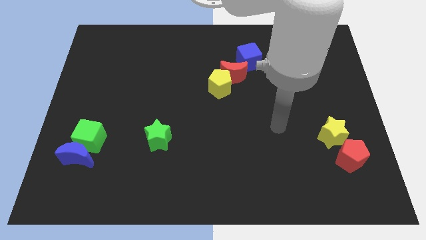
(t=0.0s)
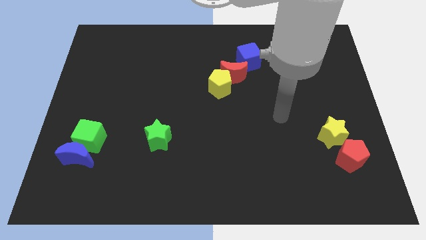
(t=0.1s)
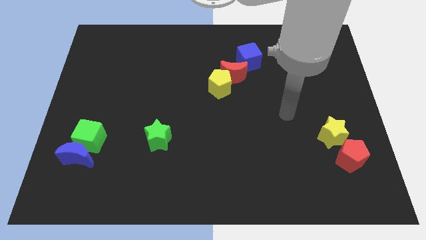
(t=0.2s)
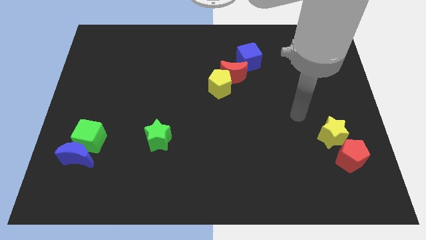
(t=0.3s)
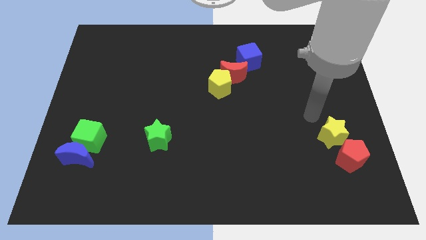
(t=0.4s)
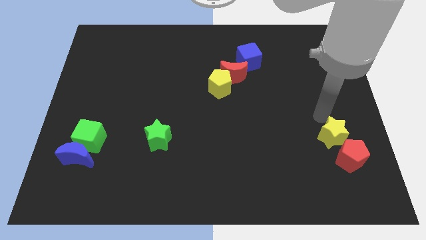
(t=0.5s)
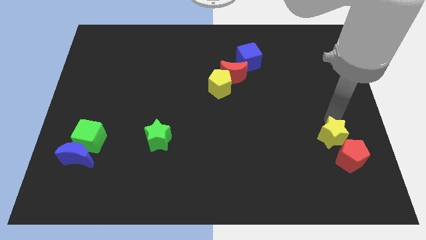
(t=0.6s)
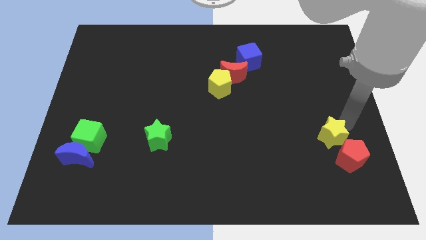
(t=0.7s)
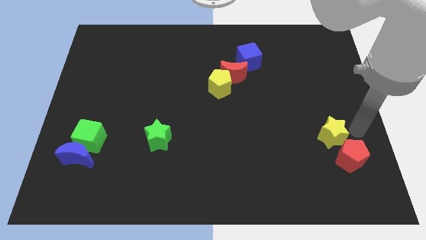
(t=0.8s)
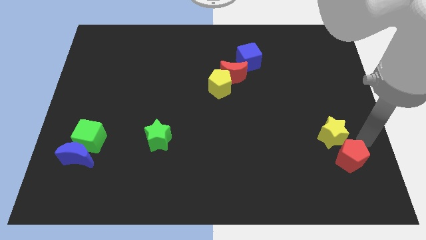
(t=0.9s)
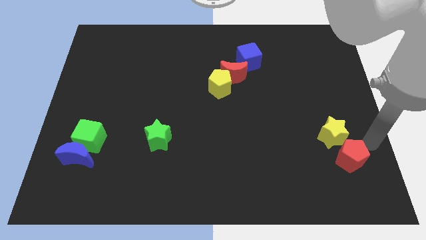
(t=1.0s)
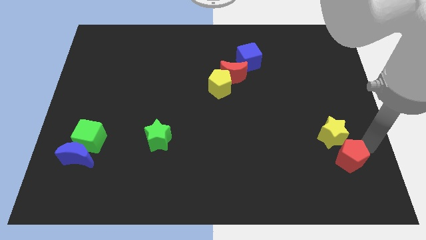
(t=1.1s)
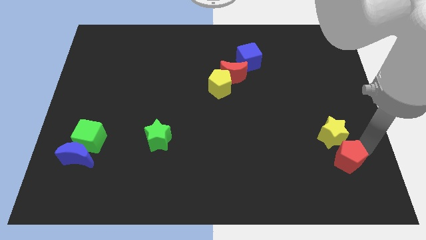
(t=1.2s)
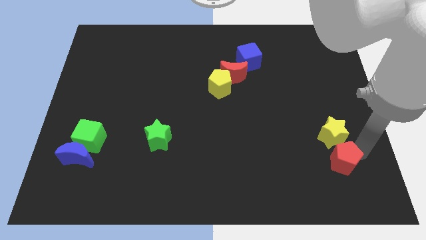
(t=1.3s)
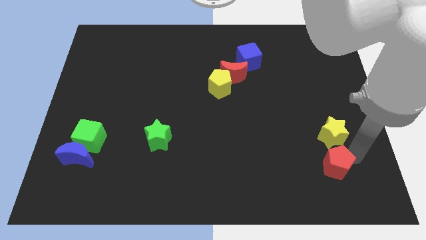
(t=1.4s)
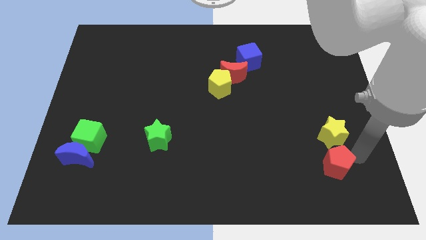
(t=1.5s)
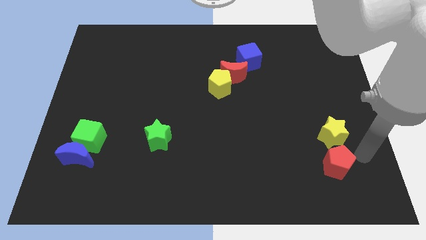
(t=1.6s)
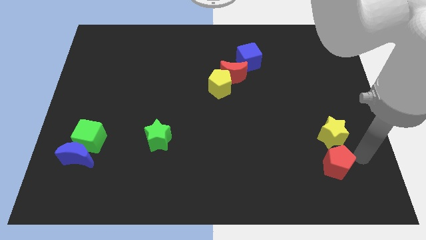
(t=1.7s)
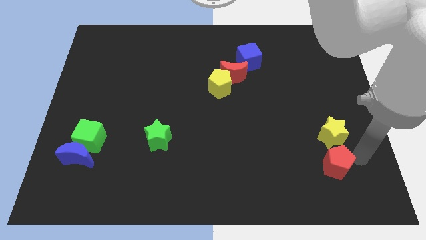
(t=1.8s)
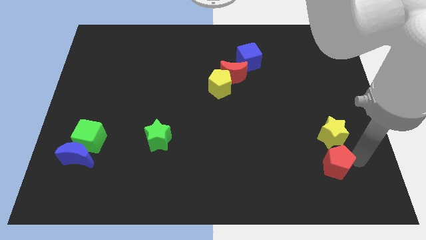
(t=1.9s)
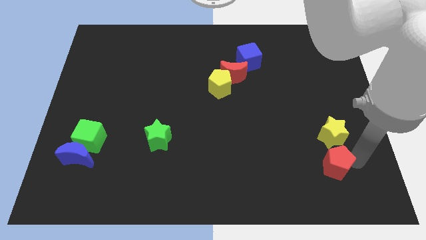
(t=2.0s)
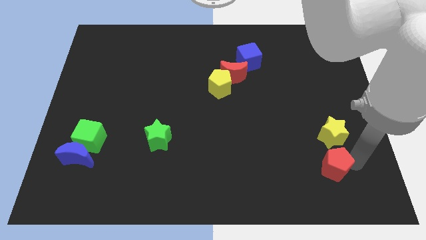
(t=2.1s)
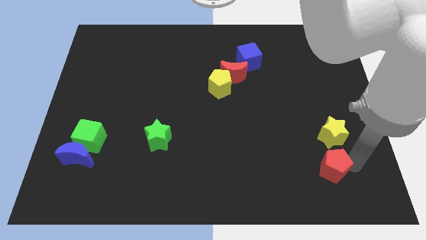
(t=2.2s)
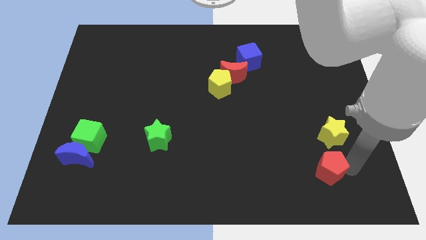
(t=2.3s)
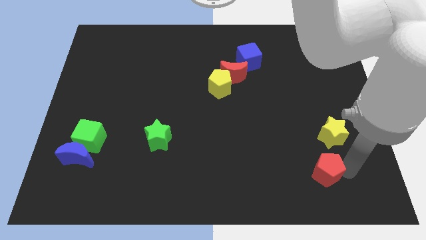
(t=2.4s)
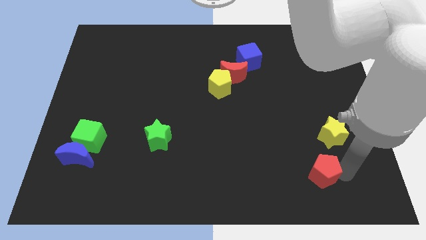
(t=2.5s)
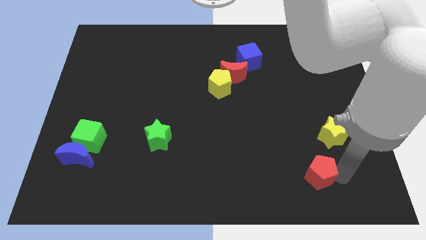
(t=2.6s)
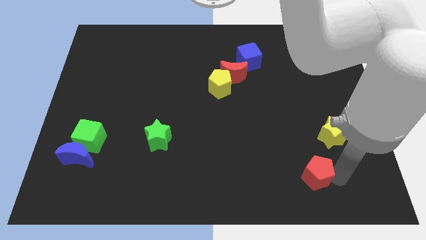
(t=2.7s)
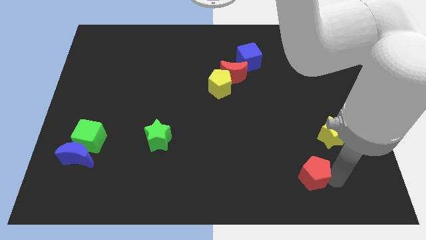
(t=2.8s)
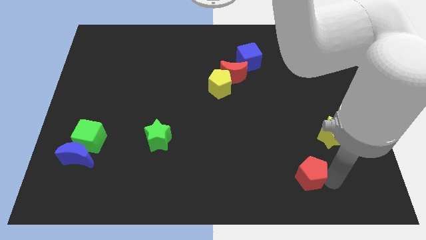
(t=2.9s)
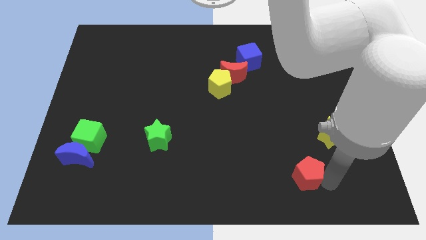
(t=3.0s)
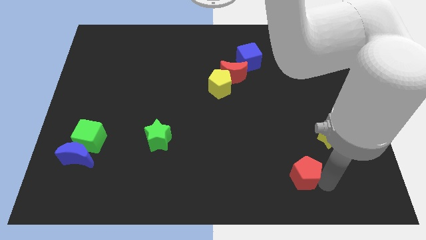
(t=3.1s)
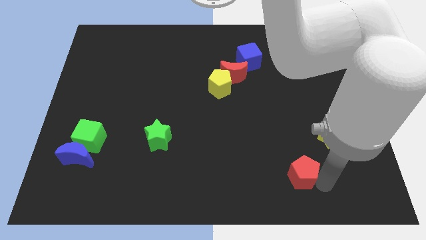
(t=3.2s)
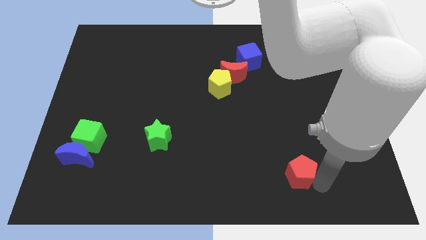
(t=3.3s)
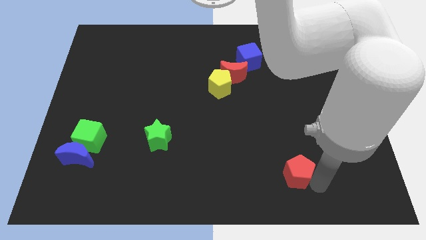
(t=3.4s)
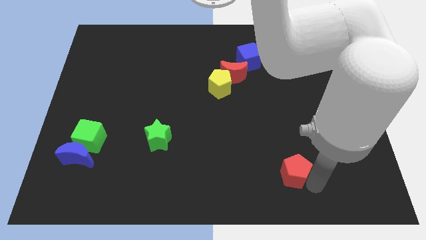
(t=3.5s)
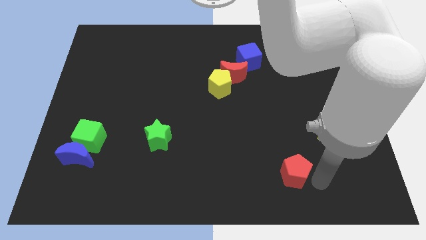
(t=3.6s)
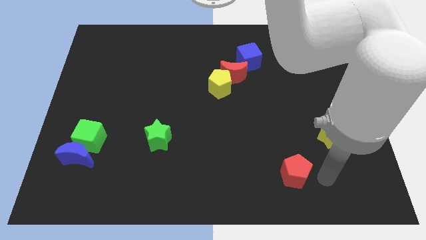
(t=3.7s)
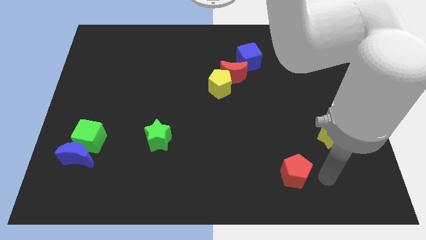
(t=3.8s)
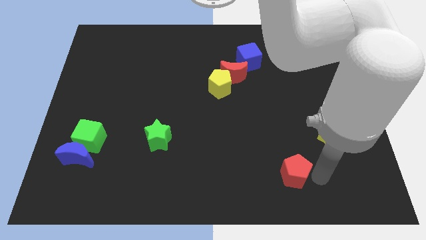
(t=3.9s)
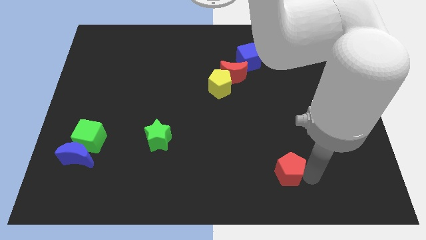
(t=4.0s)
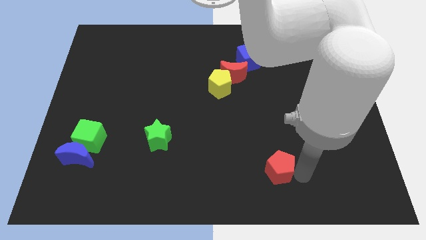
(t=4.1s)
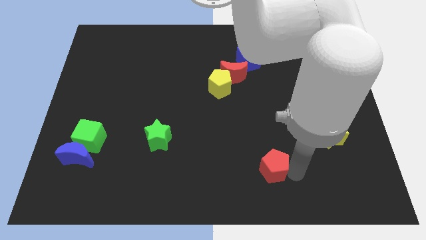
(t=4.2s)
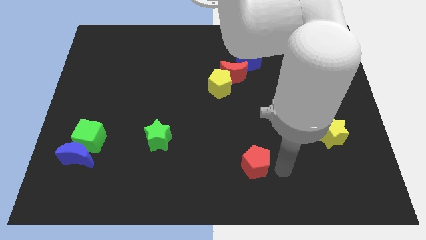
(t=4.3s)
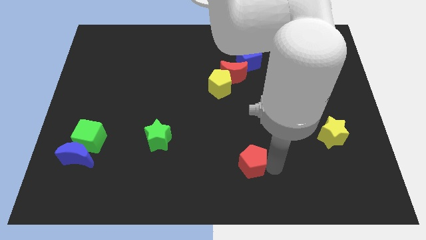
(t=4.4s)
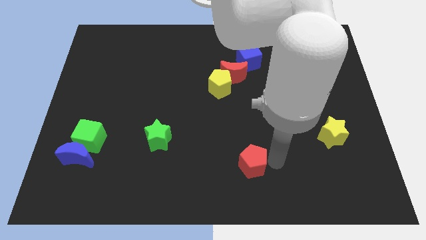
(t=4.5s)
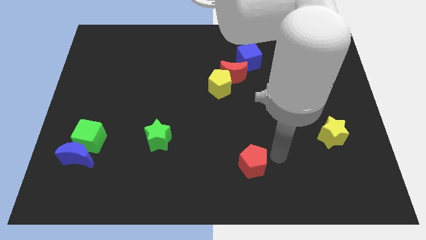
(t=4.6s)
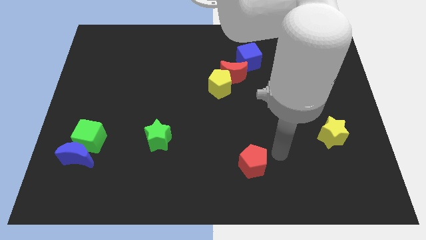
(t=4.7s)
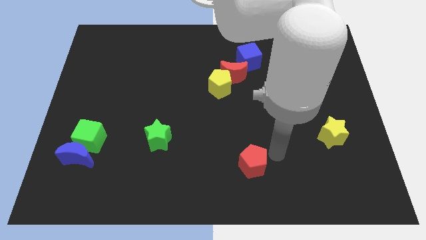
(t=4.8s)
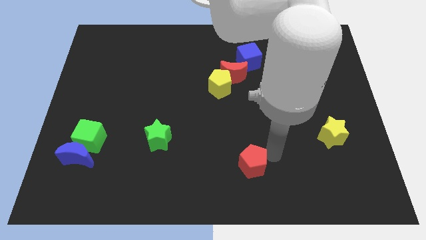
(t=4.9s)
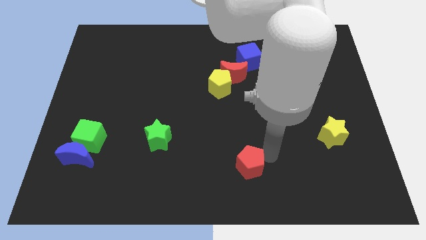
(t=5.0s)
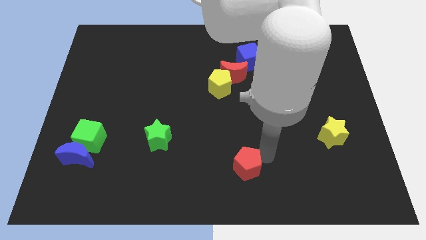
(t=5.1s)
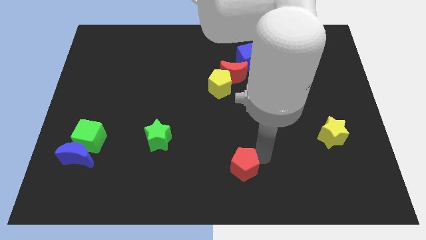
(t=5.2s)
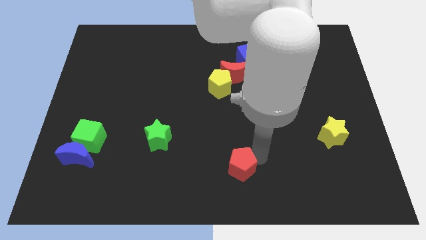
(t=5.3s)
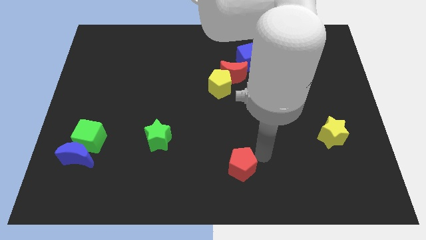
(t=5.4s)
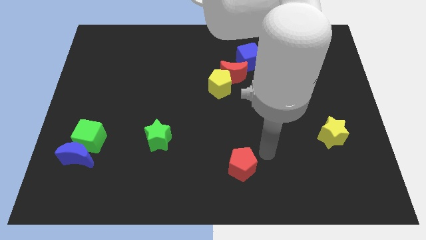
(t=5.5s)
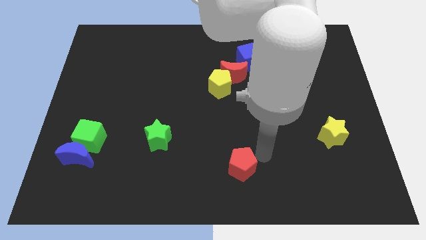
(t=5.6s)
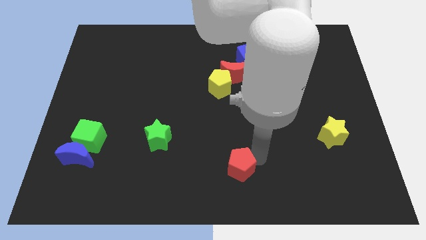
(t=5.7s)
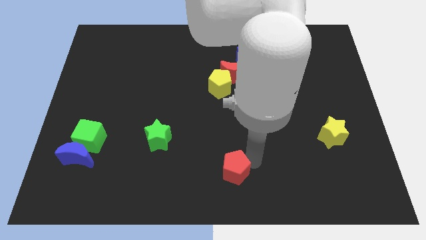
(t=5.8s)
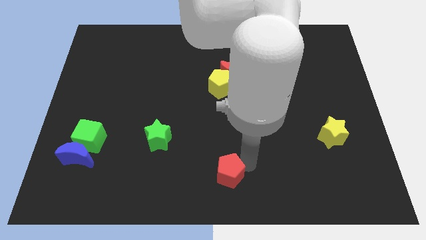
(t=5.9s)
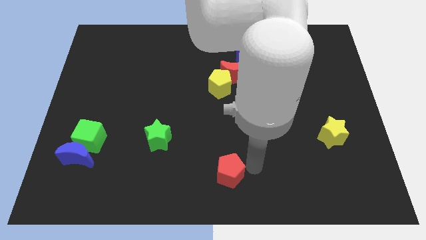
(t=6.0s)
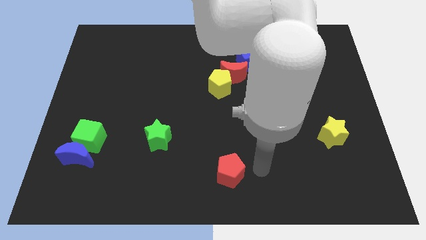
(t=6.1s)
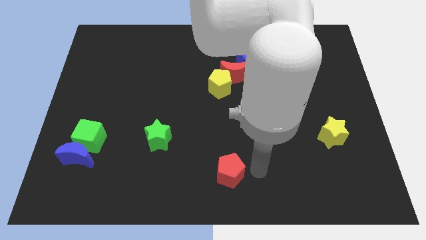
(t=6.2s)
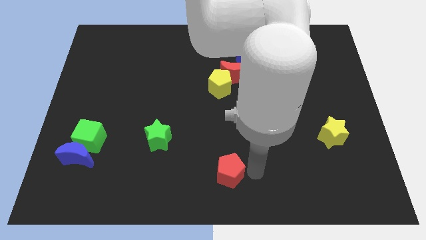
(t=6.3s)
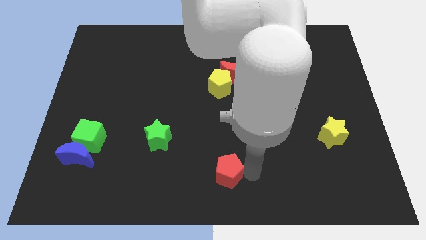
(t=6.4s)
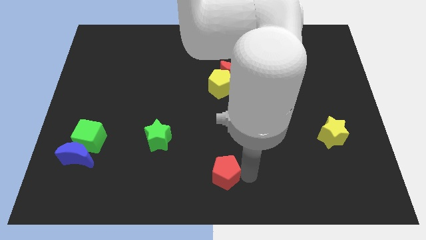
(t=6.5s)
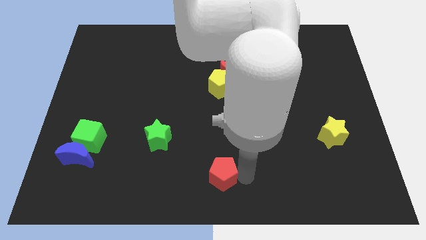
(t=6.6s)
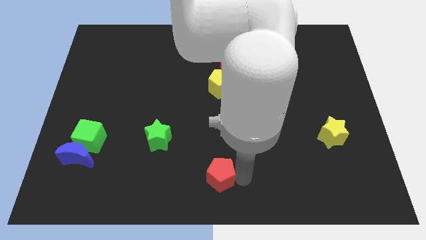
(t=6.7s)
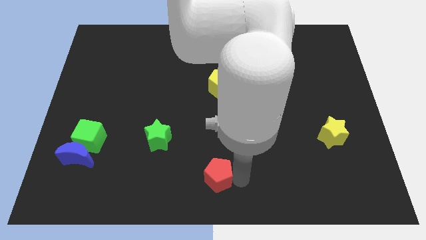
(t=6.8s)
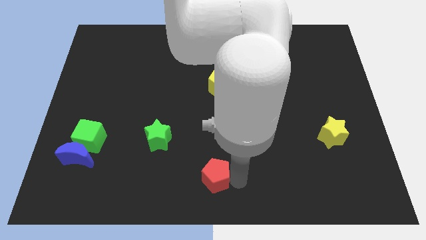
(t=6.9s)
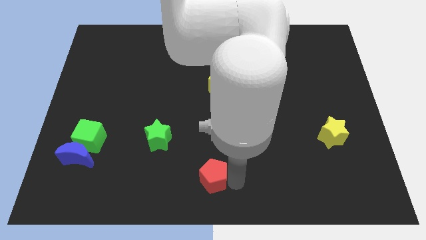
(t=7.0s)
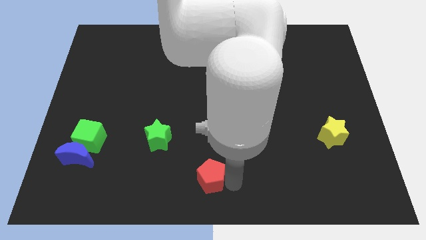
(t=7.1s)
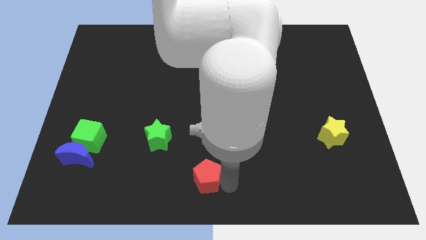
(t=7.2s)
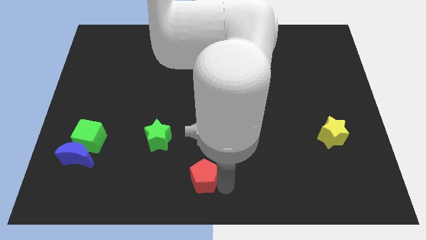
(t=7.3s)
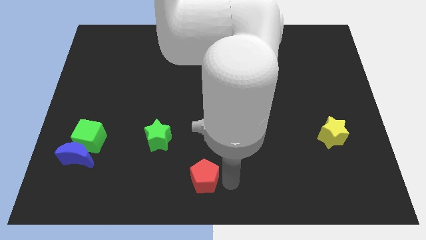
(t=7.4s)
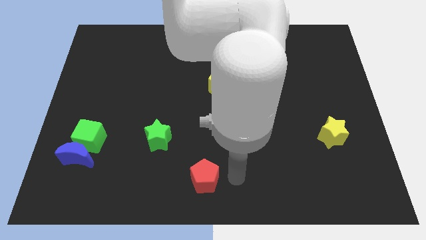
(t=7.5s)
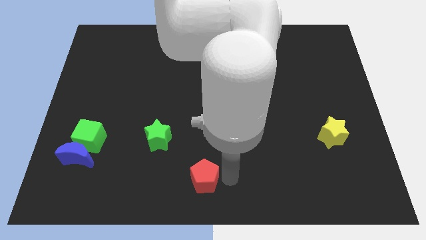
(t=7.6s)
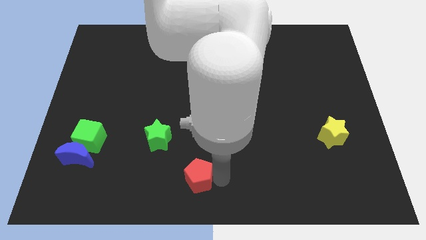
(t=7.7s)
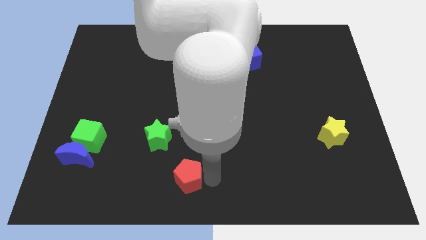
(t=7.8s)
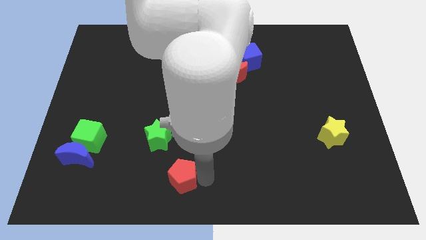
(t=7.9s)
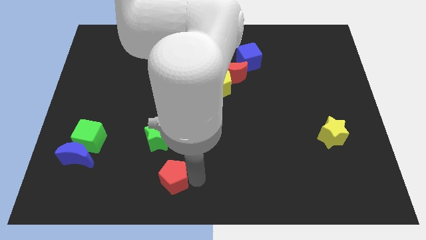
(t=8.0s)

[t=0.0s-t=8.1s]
move the red pentagon below the green star
